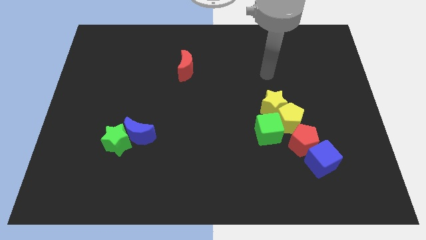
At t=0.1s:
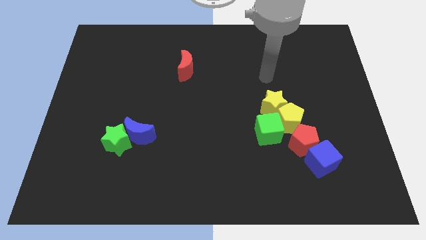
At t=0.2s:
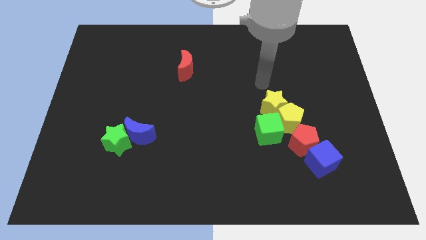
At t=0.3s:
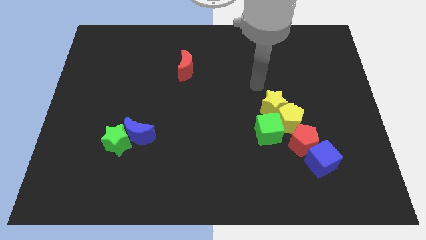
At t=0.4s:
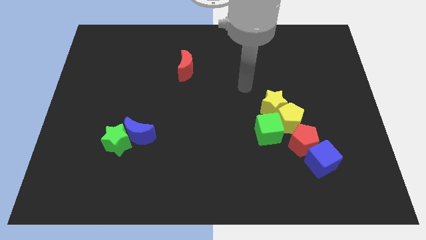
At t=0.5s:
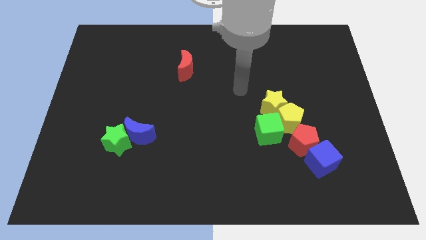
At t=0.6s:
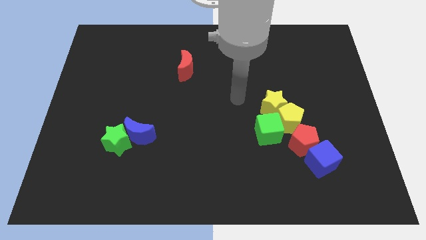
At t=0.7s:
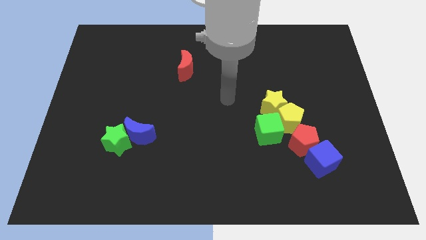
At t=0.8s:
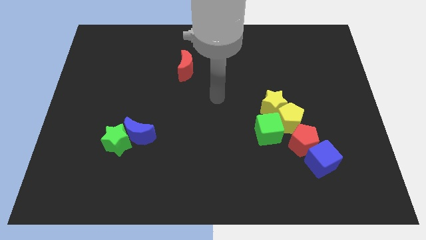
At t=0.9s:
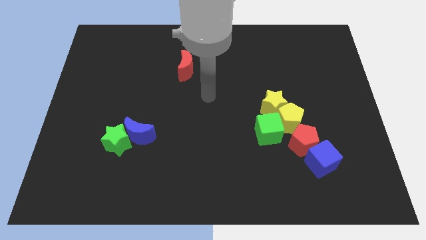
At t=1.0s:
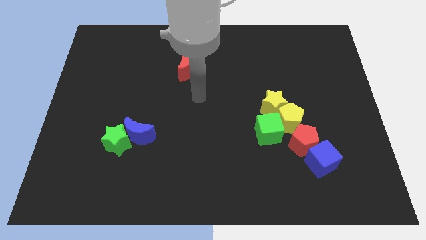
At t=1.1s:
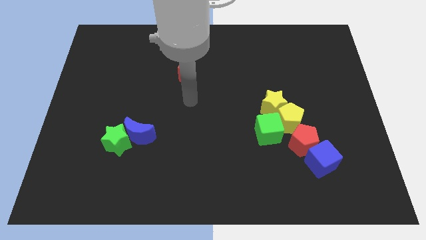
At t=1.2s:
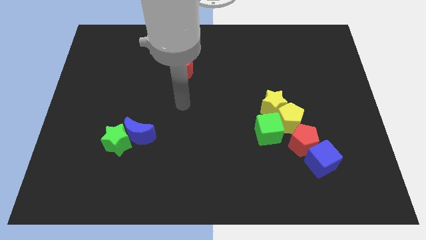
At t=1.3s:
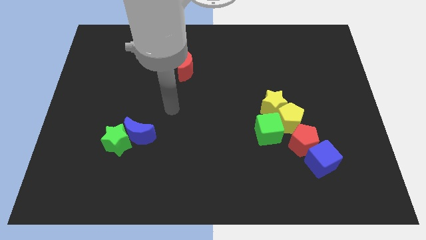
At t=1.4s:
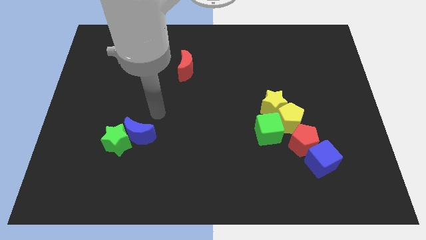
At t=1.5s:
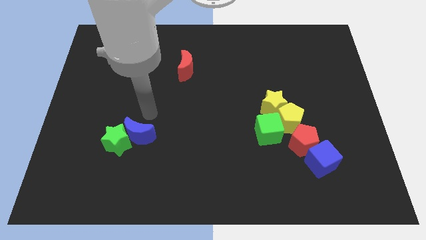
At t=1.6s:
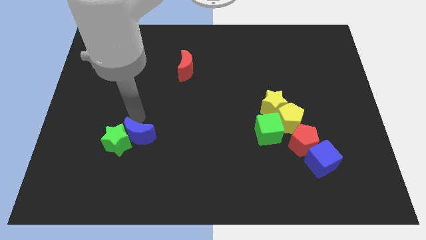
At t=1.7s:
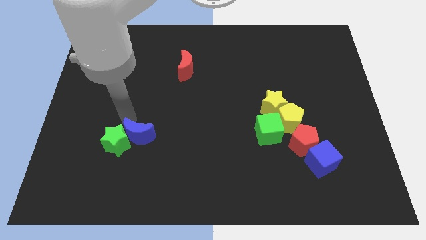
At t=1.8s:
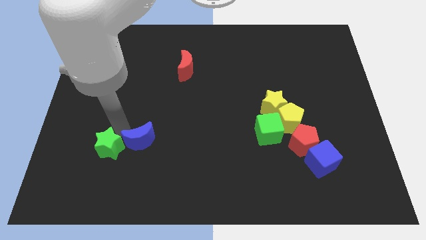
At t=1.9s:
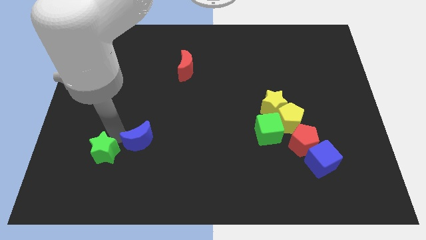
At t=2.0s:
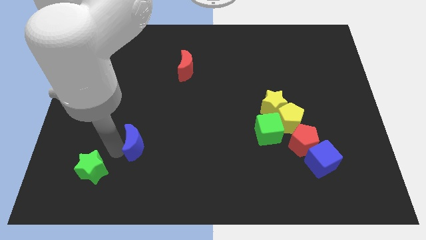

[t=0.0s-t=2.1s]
move the blue moon away from the green star

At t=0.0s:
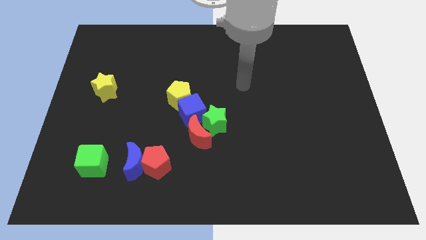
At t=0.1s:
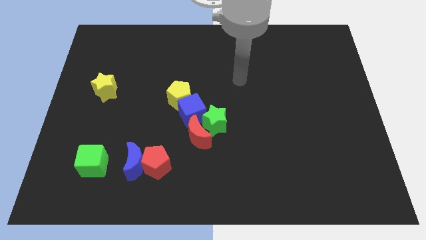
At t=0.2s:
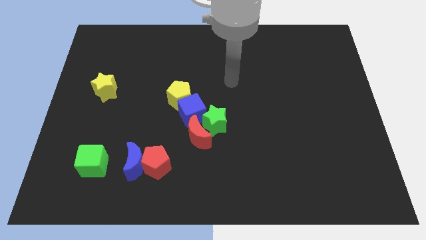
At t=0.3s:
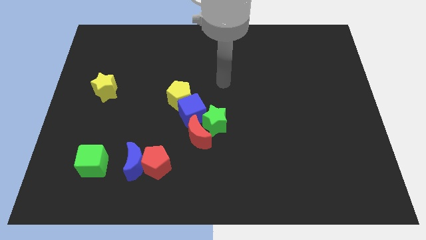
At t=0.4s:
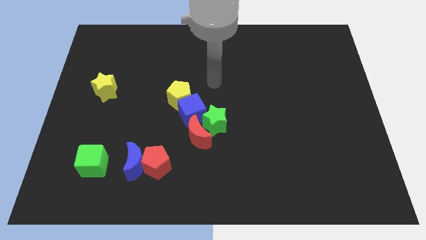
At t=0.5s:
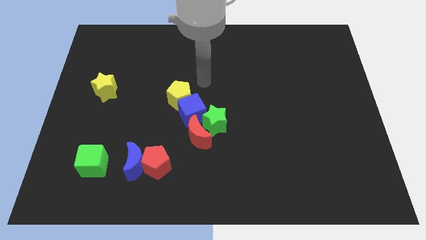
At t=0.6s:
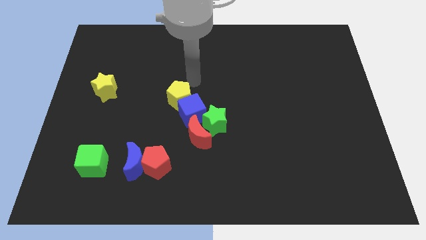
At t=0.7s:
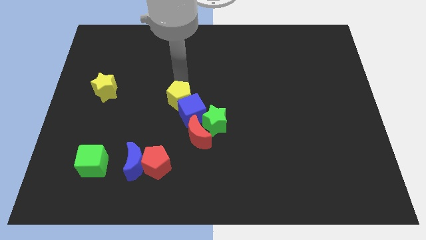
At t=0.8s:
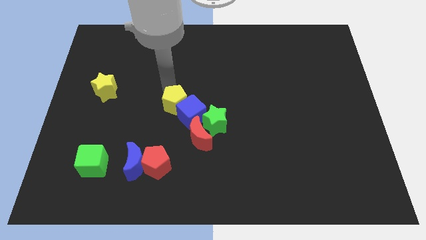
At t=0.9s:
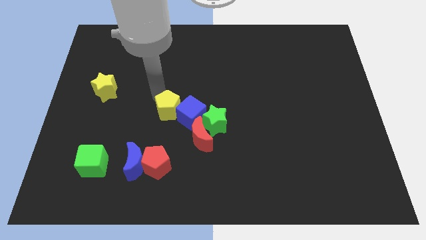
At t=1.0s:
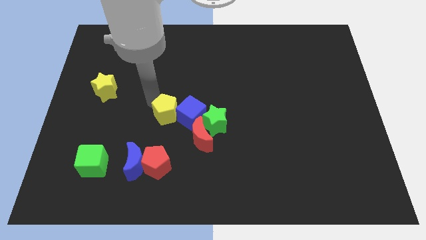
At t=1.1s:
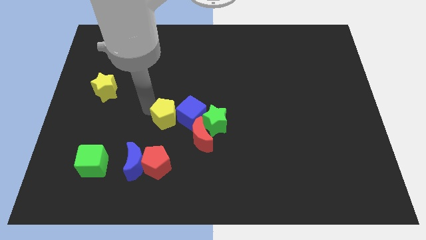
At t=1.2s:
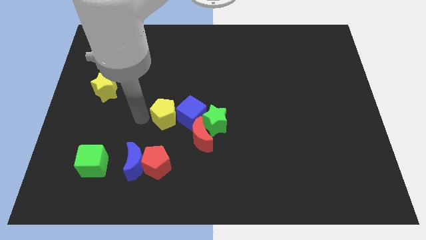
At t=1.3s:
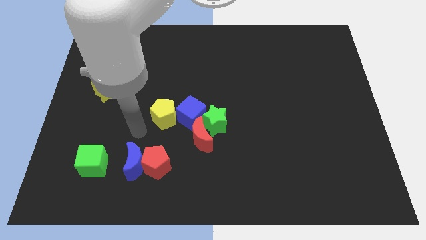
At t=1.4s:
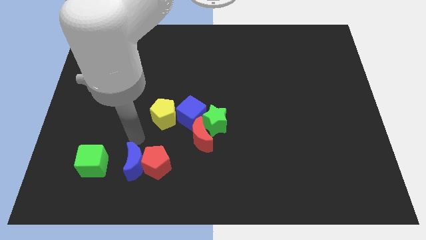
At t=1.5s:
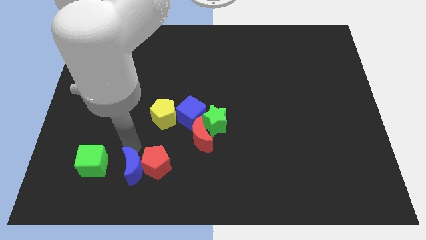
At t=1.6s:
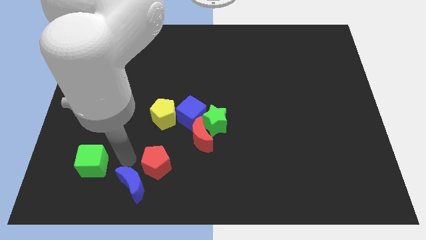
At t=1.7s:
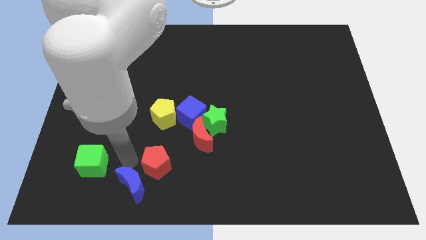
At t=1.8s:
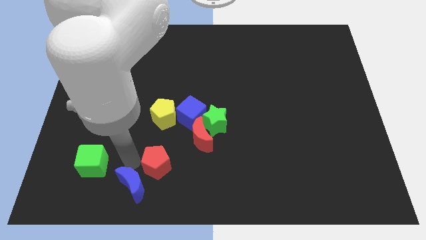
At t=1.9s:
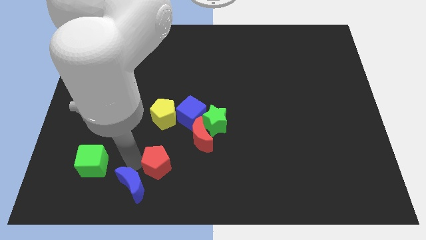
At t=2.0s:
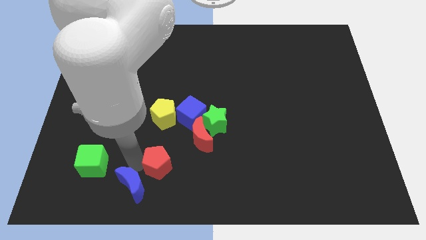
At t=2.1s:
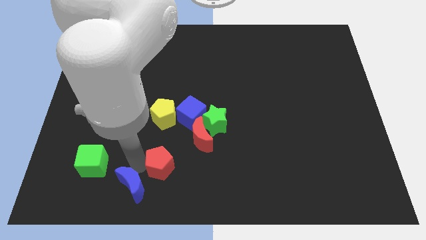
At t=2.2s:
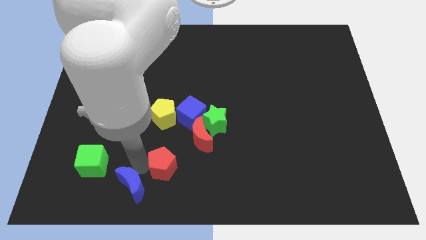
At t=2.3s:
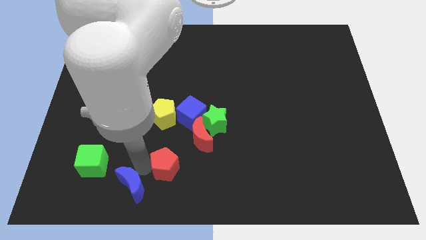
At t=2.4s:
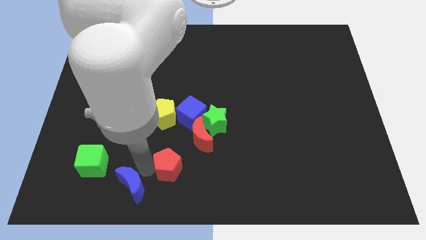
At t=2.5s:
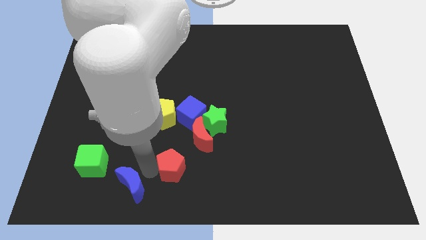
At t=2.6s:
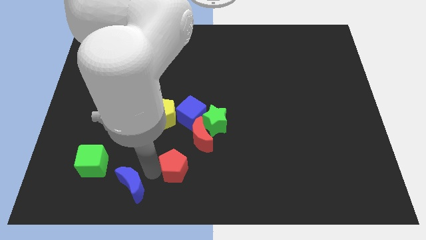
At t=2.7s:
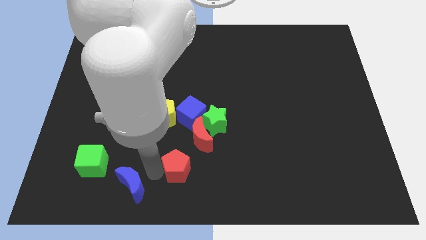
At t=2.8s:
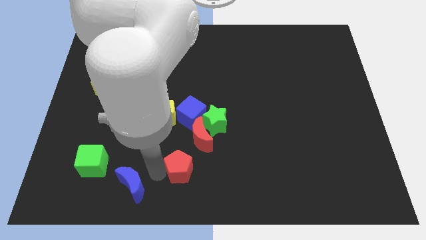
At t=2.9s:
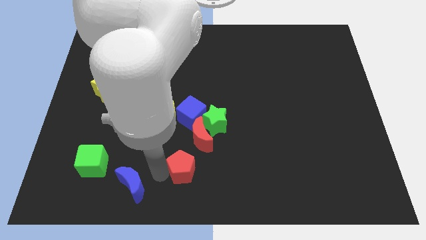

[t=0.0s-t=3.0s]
pull the red pentagon apart from the blue moon

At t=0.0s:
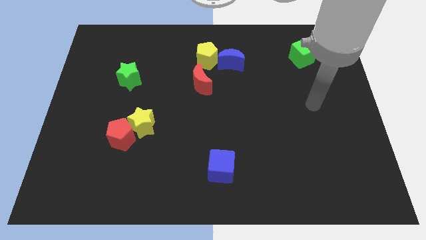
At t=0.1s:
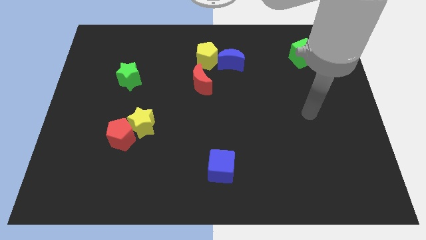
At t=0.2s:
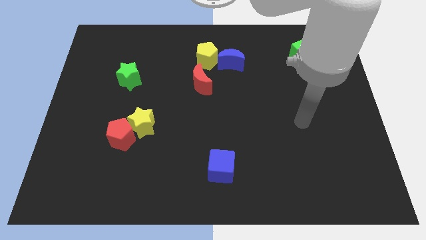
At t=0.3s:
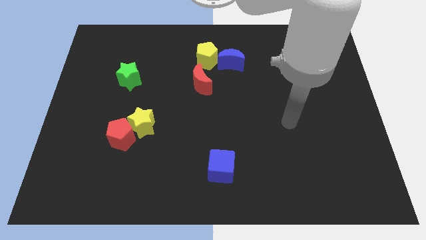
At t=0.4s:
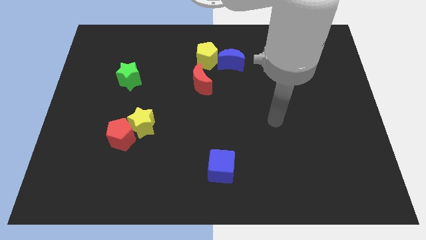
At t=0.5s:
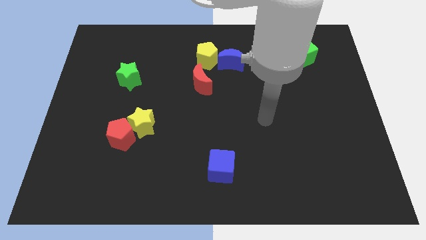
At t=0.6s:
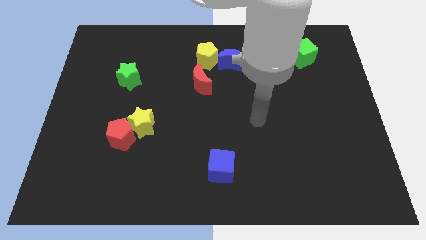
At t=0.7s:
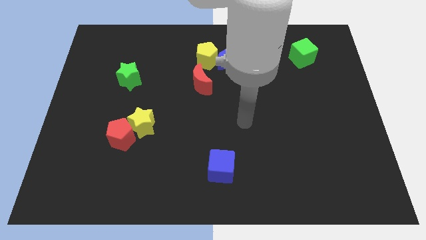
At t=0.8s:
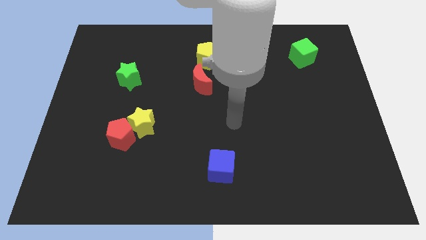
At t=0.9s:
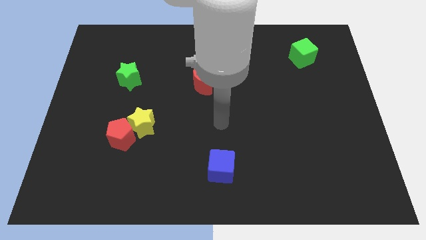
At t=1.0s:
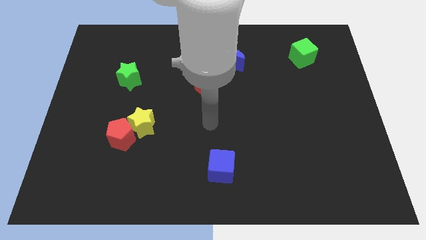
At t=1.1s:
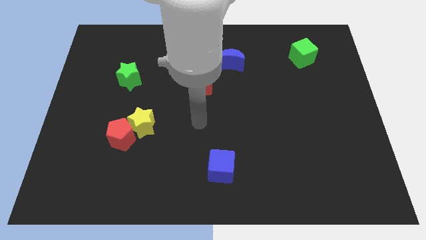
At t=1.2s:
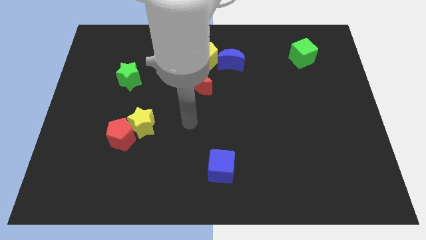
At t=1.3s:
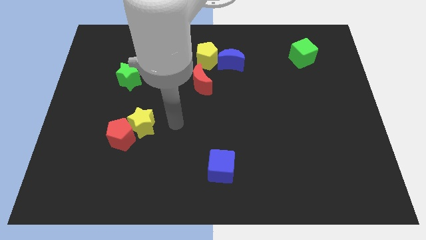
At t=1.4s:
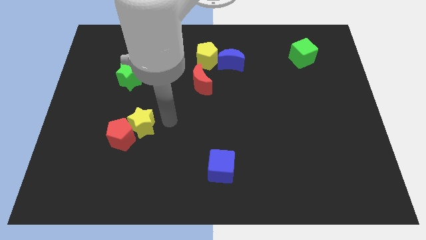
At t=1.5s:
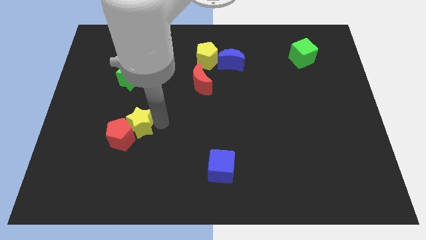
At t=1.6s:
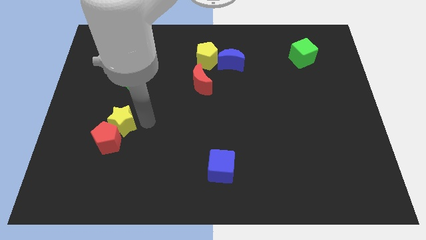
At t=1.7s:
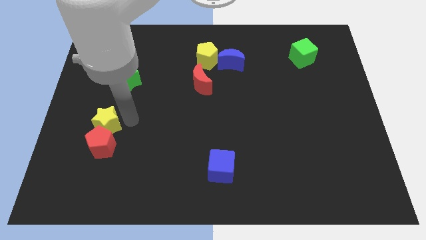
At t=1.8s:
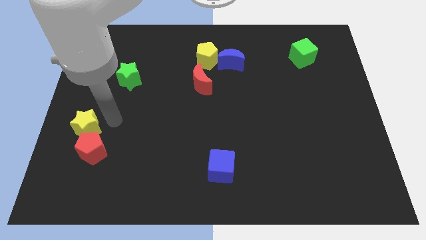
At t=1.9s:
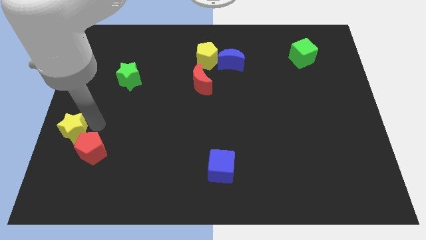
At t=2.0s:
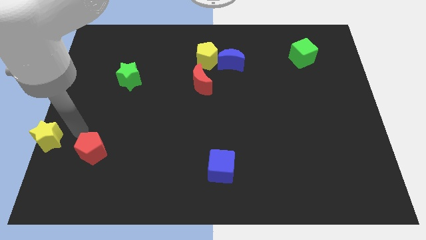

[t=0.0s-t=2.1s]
pull the red pentagon apart from the yellow star

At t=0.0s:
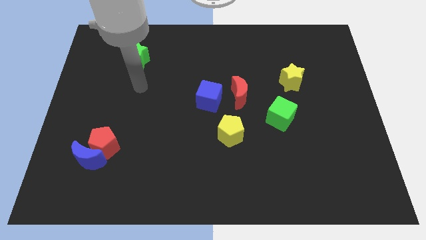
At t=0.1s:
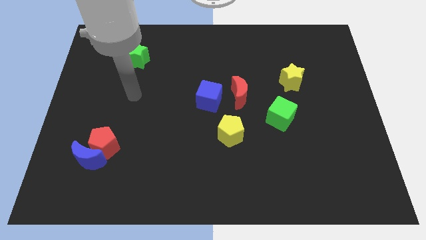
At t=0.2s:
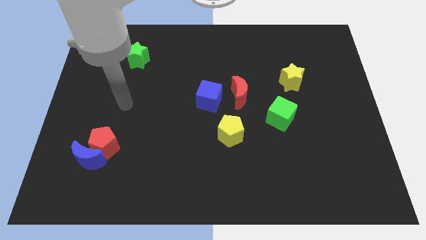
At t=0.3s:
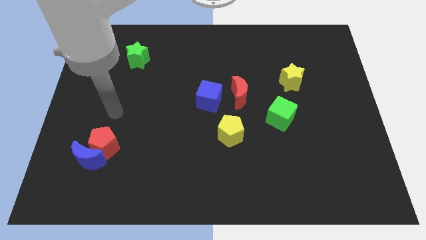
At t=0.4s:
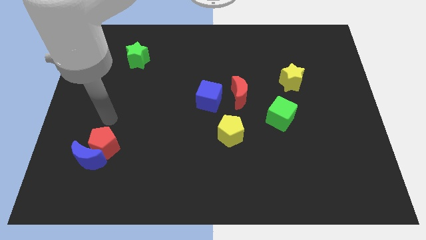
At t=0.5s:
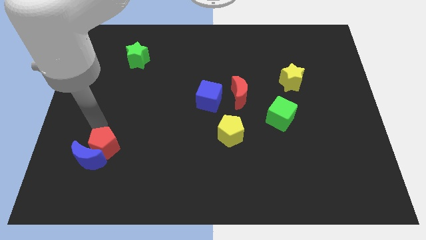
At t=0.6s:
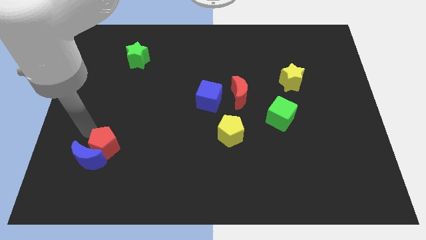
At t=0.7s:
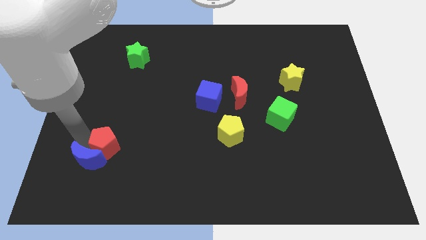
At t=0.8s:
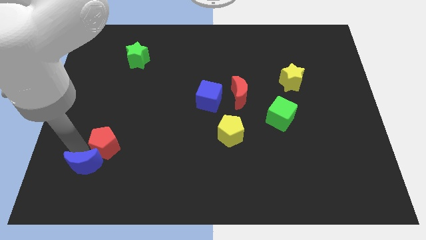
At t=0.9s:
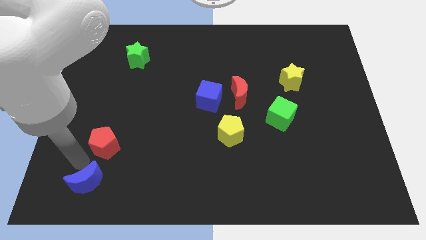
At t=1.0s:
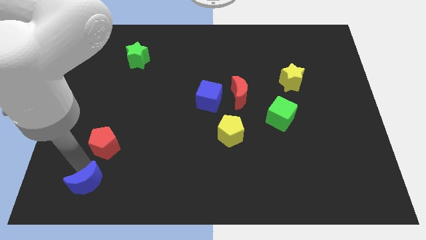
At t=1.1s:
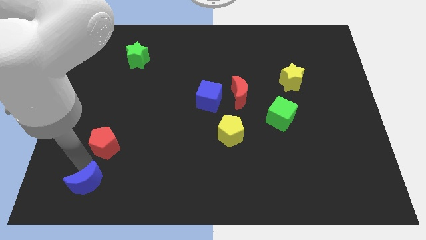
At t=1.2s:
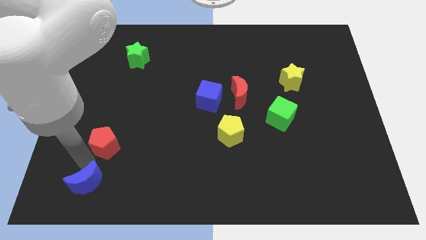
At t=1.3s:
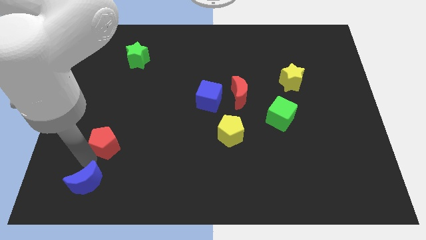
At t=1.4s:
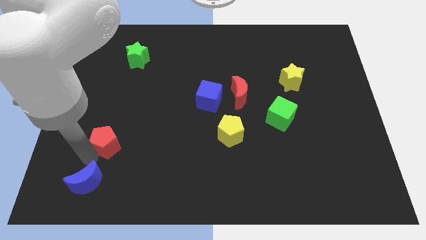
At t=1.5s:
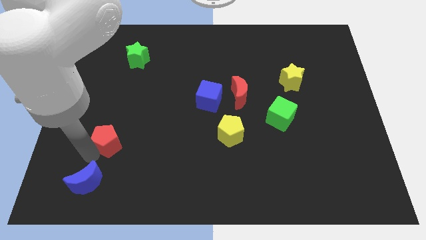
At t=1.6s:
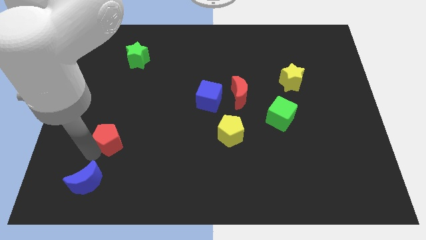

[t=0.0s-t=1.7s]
separate the red pentagon from the blue moon

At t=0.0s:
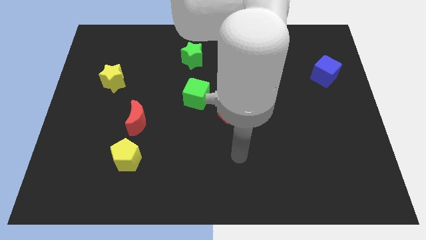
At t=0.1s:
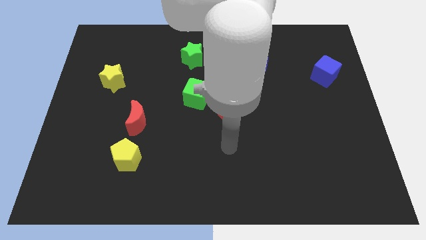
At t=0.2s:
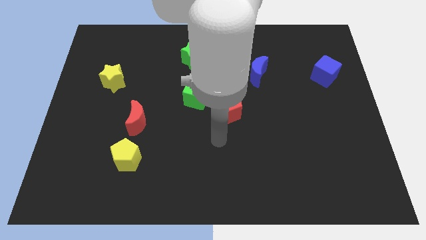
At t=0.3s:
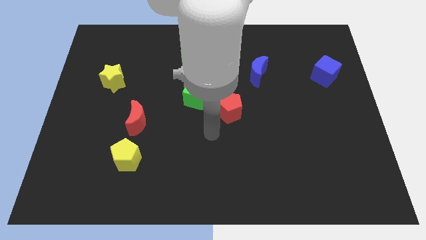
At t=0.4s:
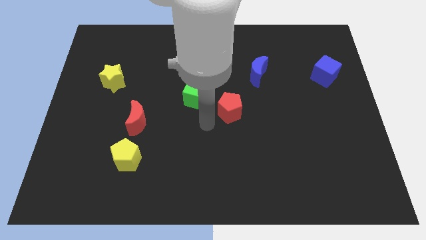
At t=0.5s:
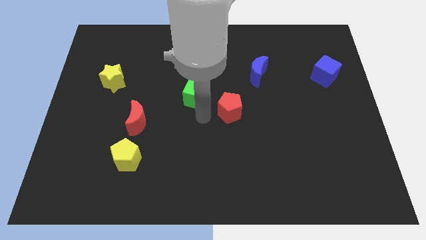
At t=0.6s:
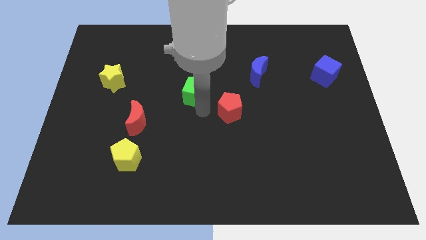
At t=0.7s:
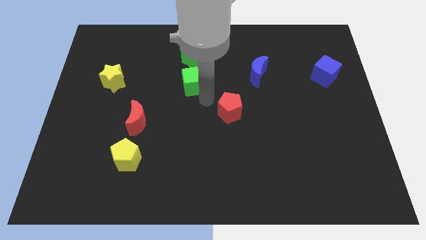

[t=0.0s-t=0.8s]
move the red pentagon away from the green cube
